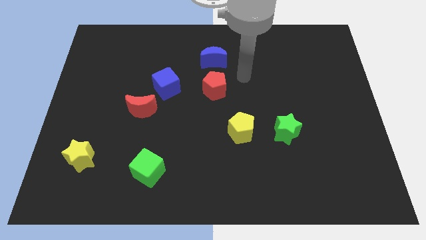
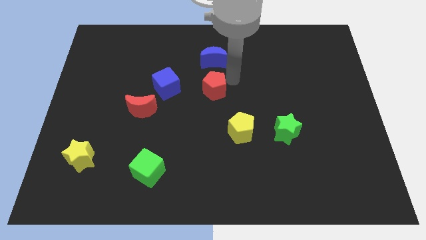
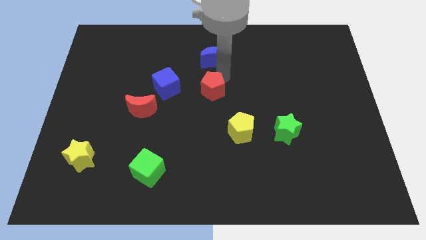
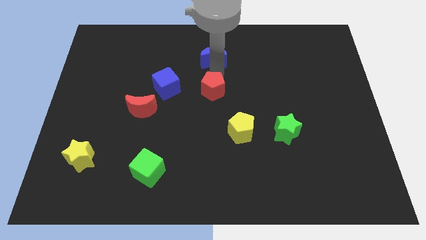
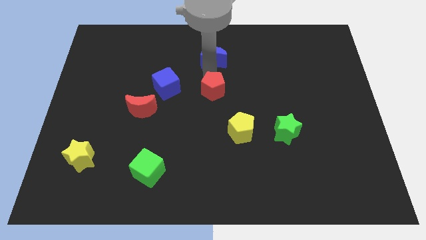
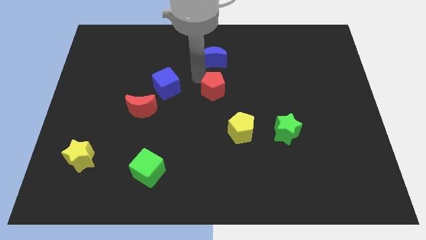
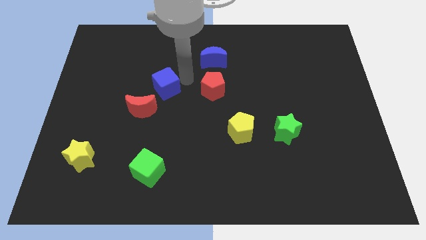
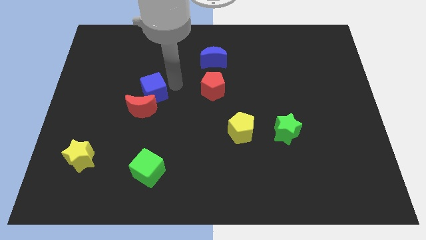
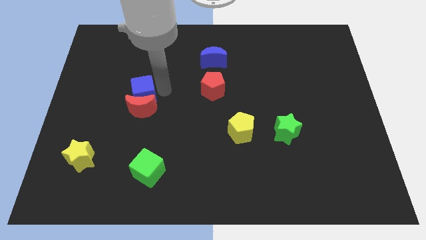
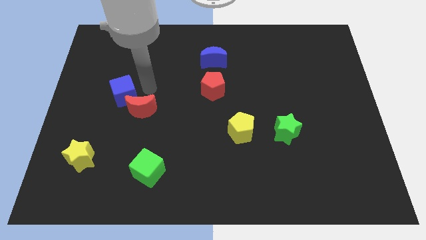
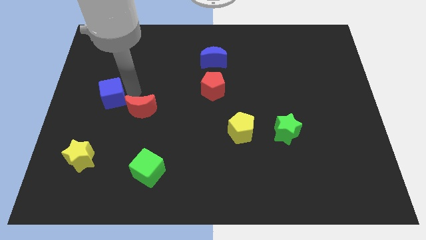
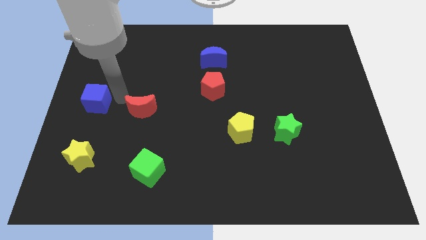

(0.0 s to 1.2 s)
move the red moon away from the blue cube

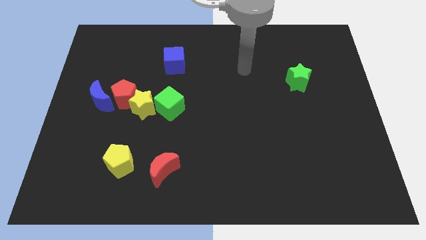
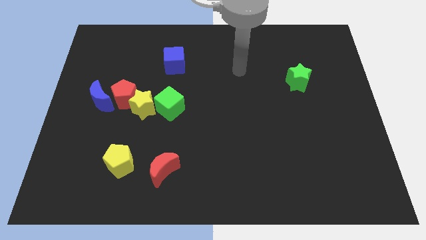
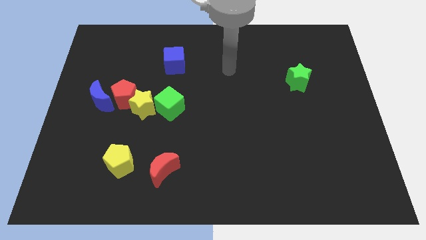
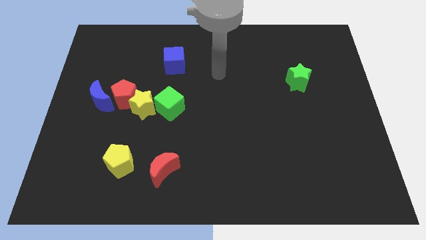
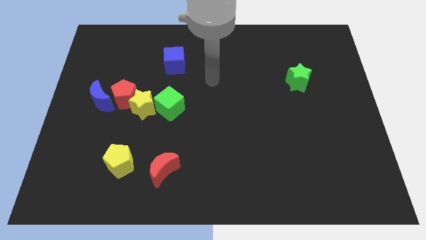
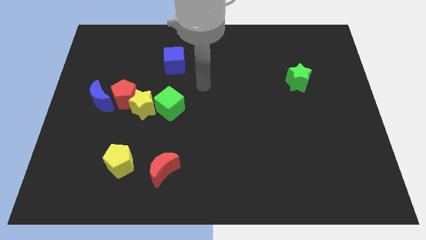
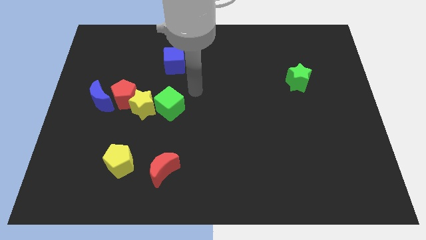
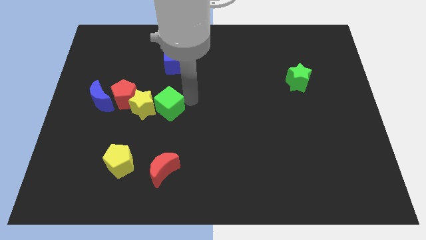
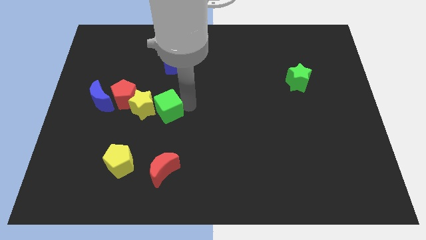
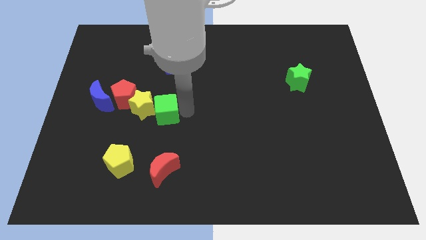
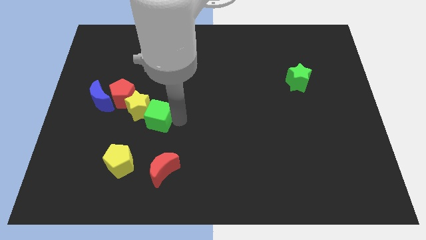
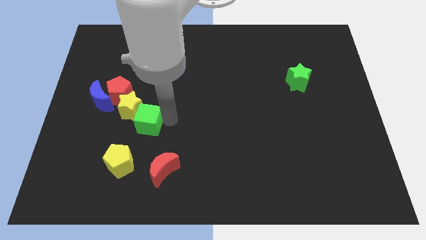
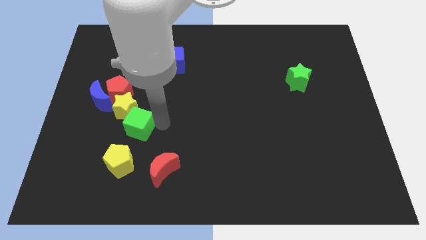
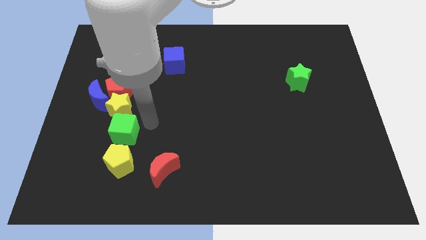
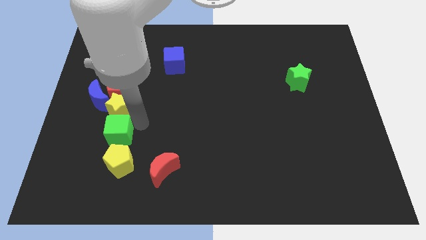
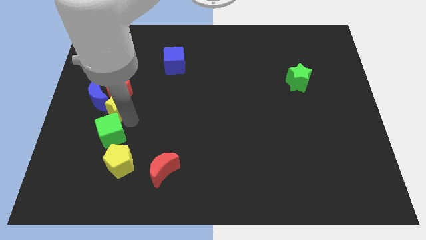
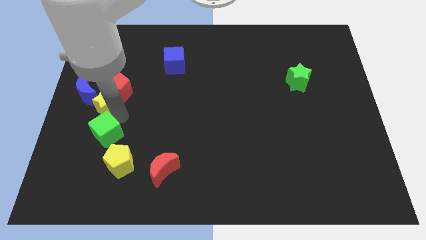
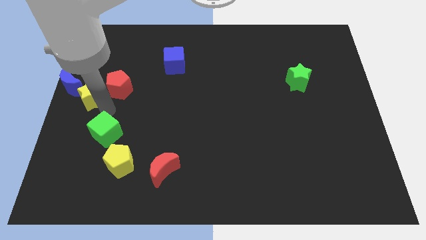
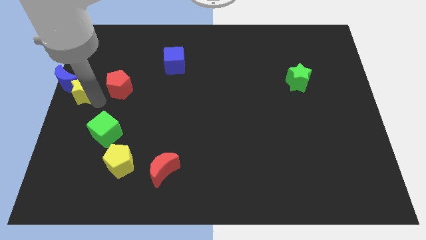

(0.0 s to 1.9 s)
separate the red pentagon from the yellow star and blue moon

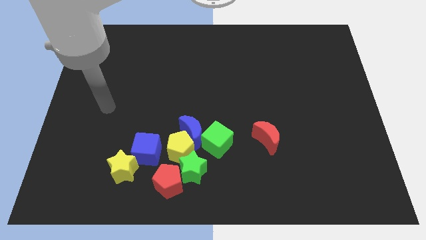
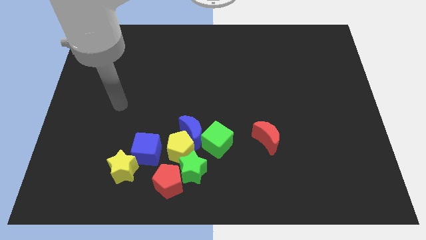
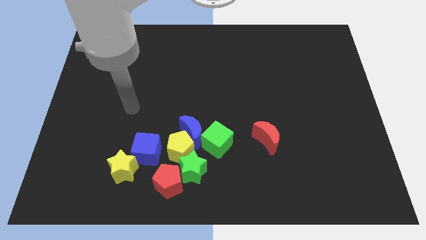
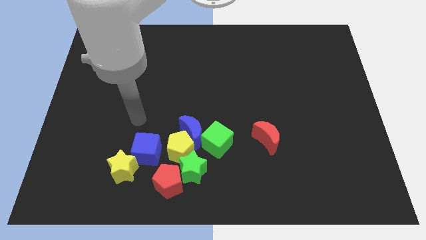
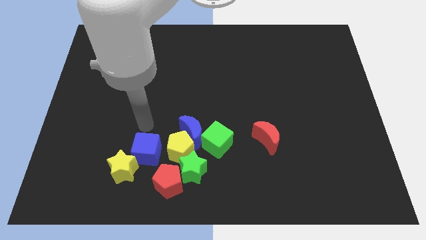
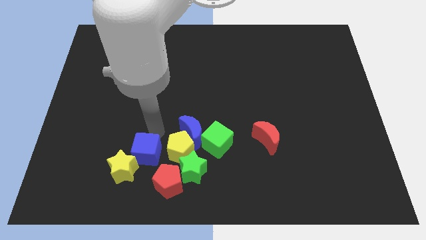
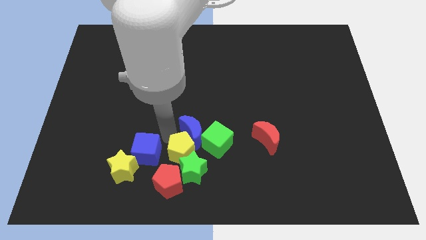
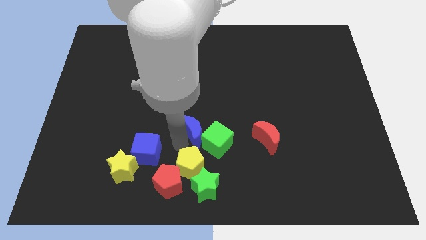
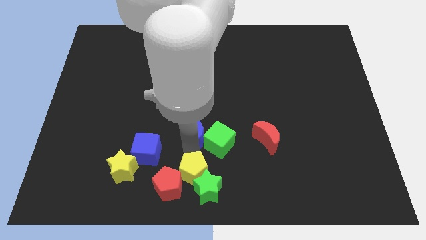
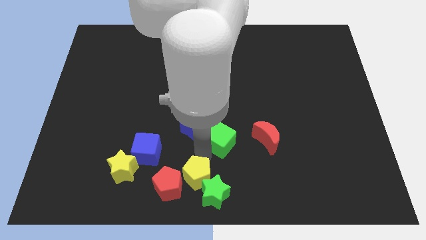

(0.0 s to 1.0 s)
separate the blue moon from the group

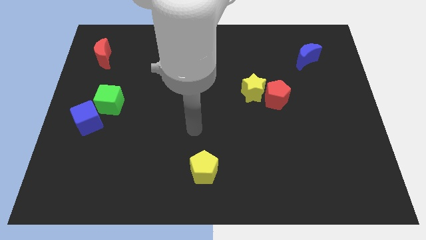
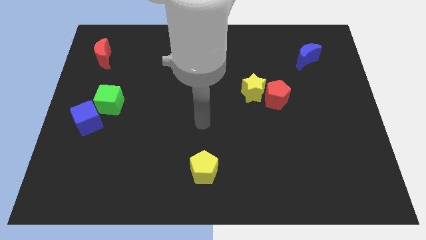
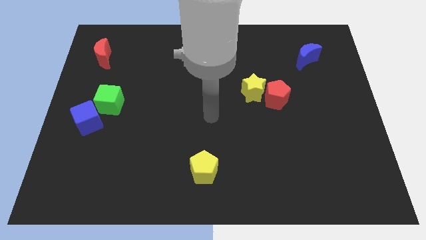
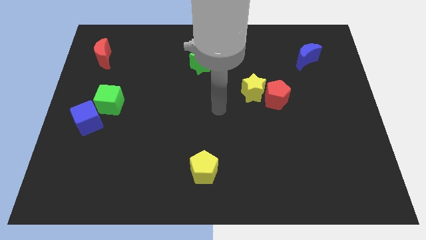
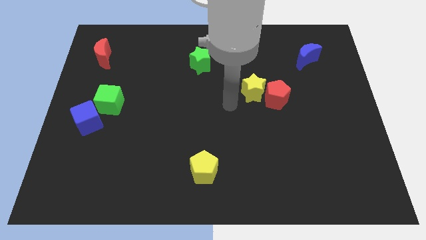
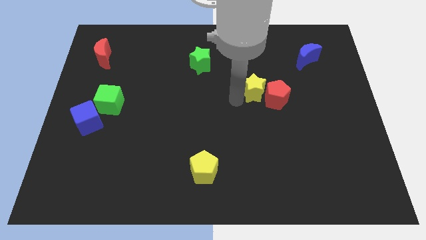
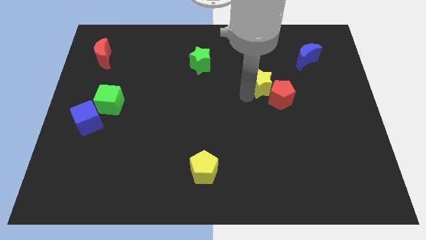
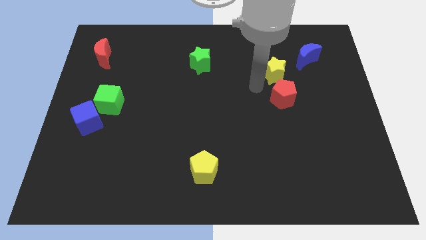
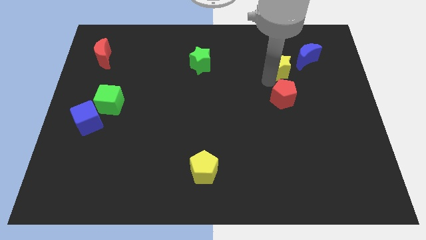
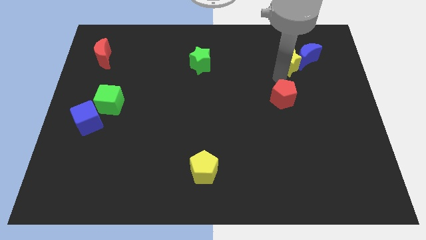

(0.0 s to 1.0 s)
pull the red pentagon apart from the yellow star

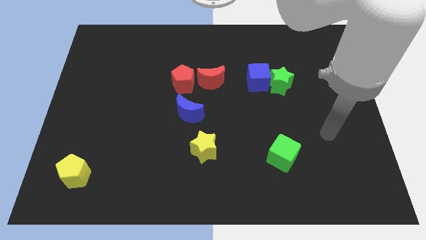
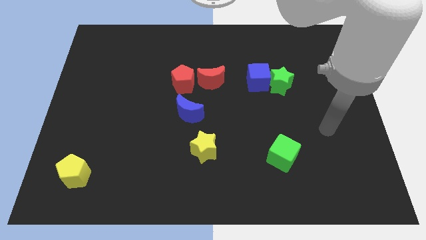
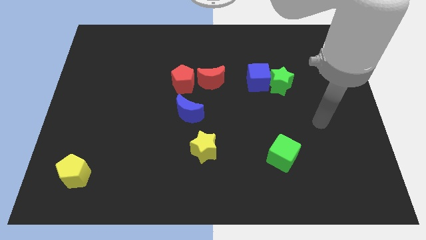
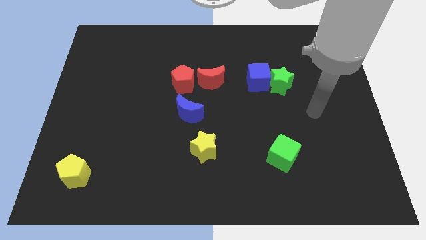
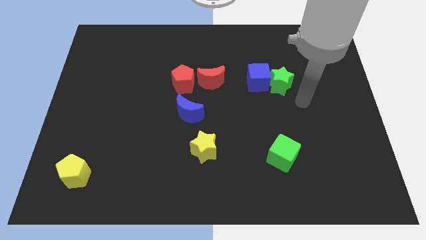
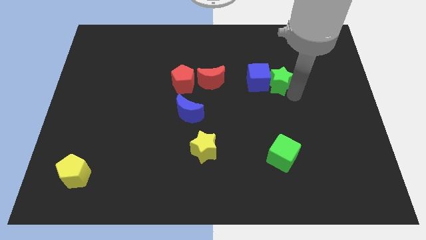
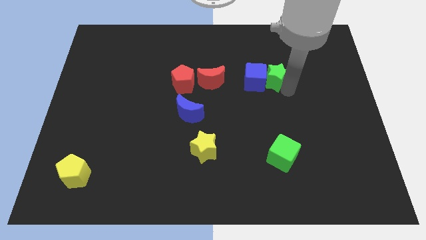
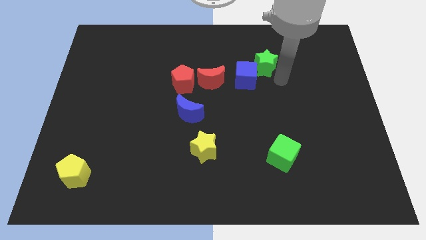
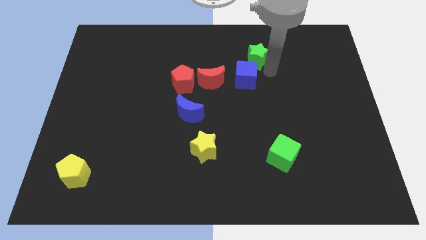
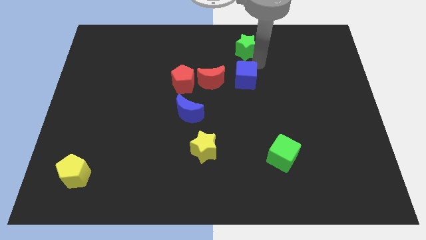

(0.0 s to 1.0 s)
separate the blue cube from the green star

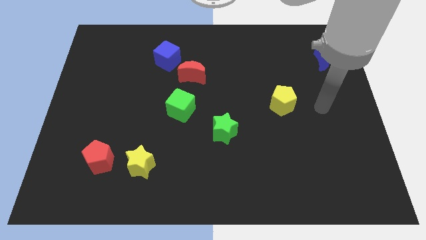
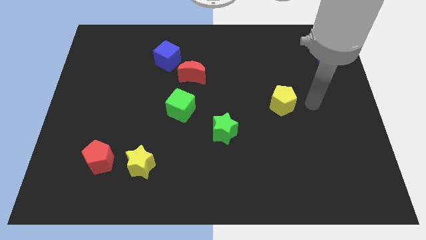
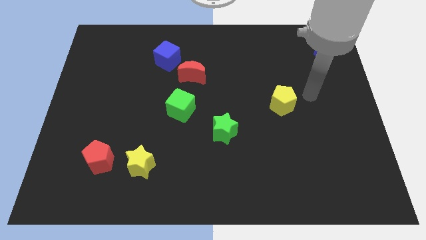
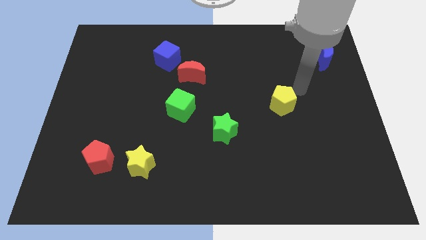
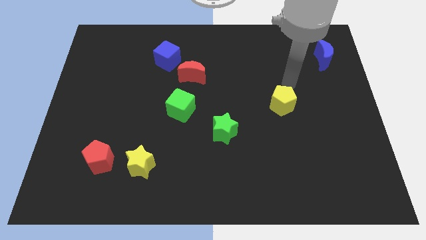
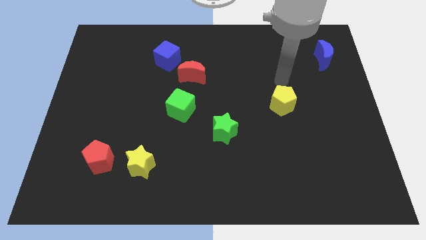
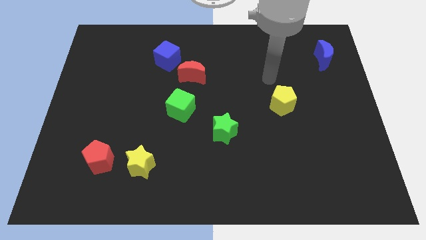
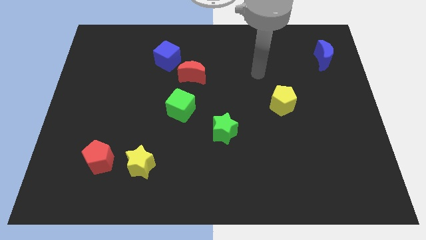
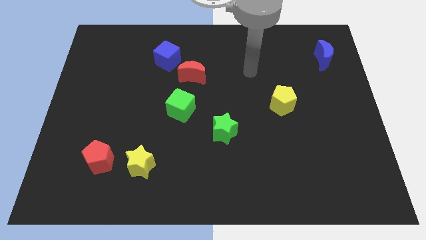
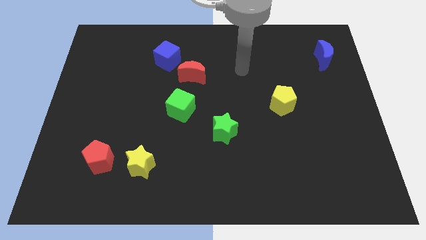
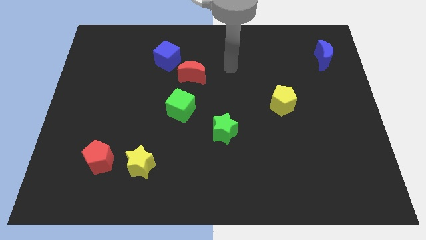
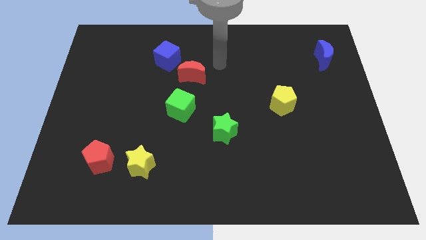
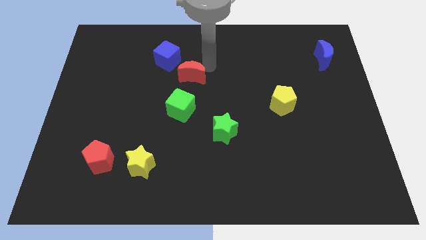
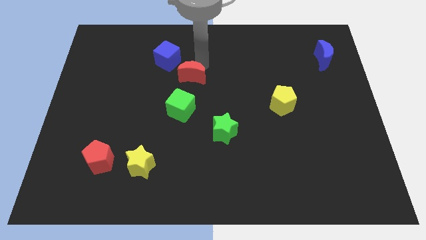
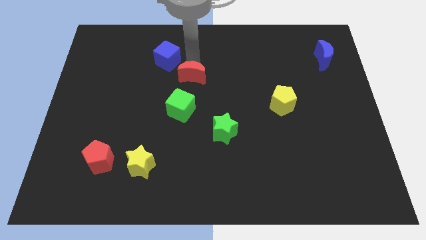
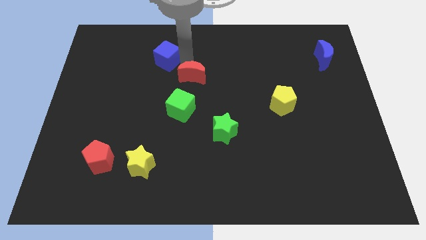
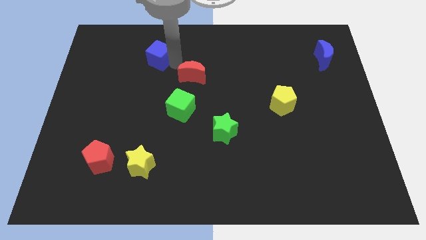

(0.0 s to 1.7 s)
separate the red moon from the blue cube

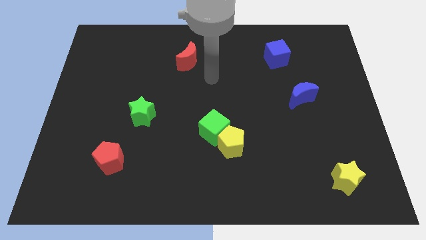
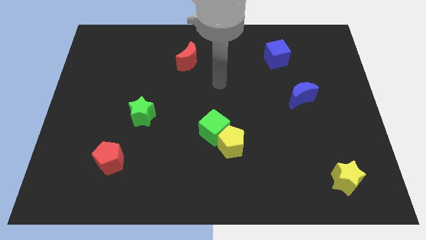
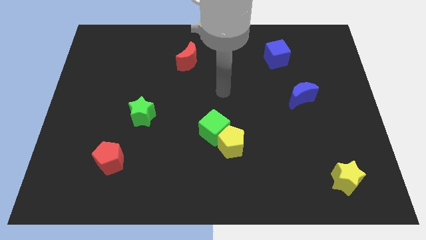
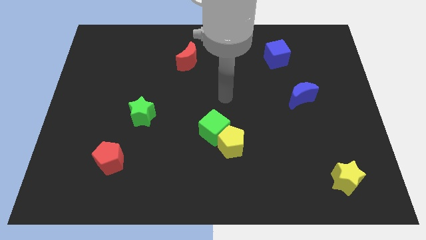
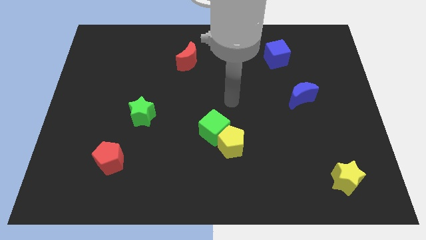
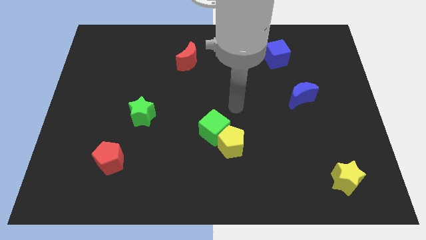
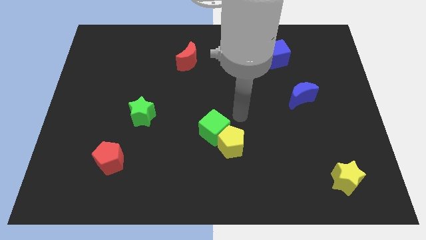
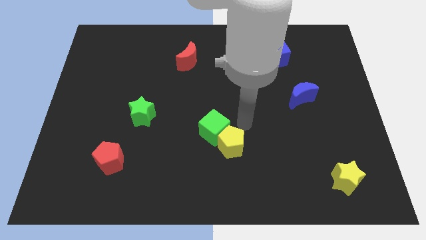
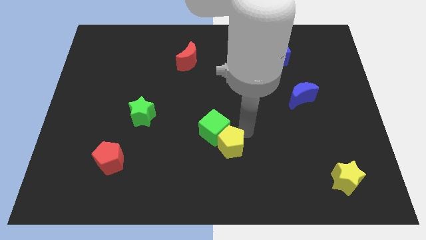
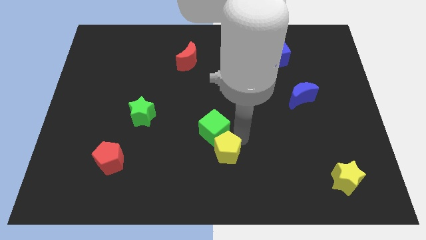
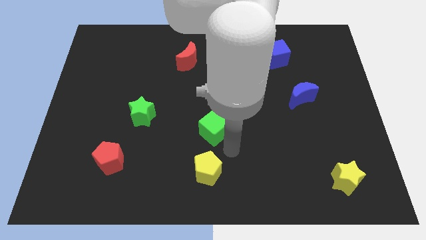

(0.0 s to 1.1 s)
separate the green cube from the yellow pentagon

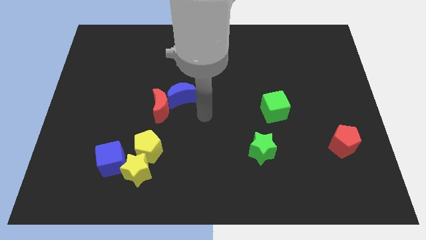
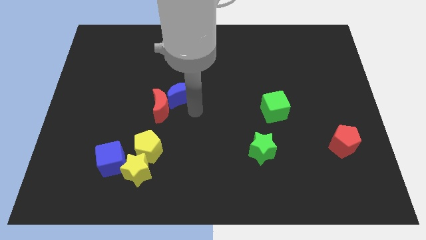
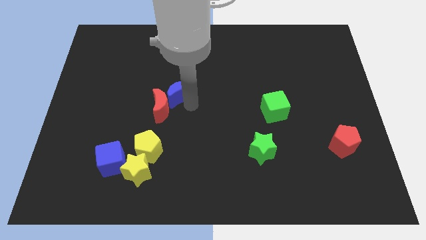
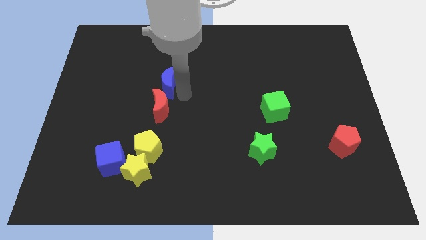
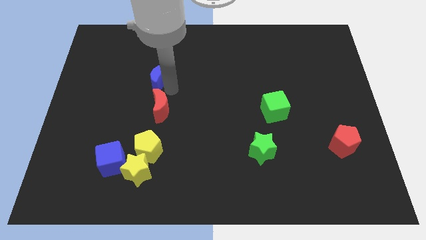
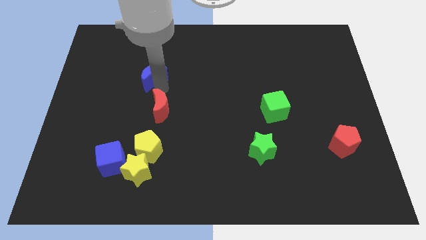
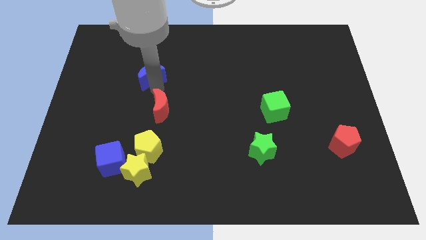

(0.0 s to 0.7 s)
move the red moon away from the blue moon
